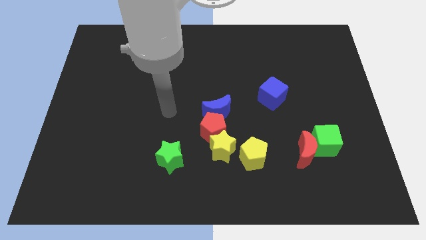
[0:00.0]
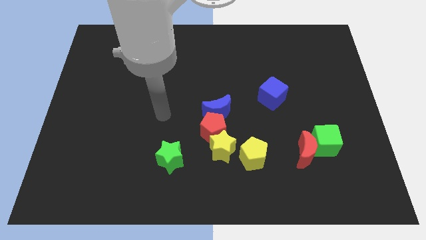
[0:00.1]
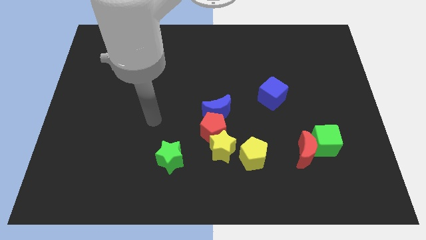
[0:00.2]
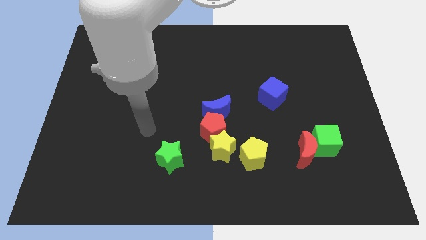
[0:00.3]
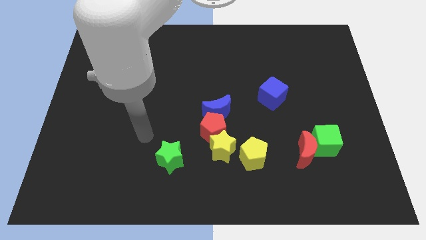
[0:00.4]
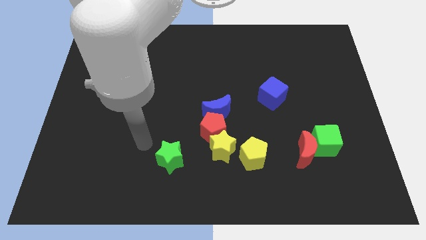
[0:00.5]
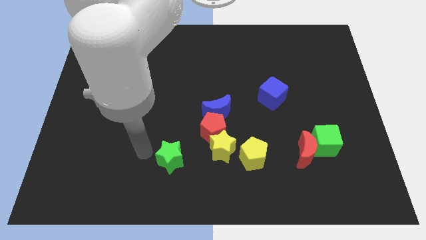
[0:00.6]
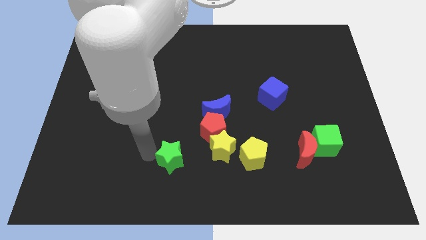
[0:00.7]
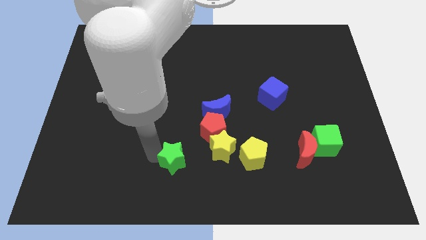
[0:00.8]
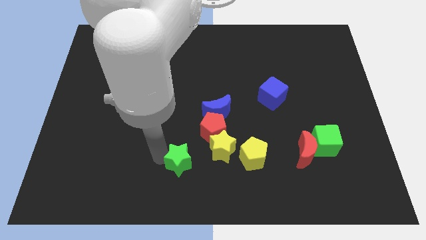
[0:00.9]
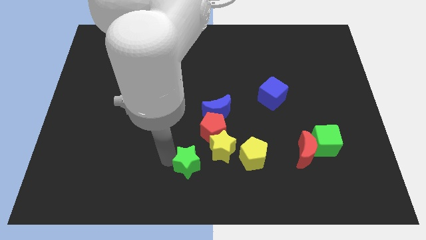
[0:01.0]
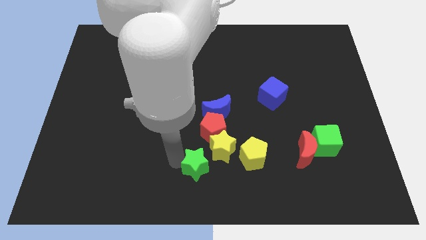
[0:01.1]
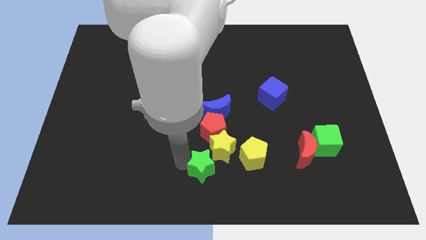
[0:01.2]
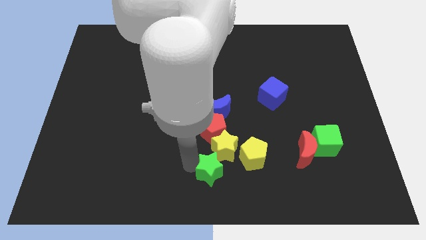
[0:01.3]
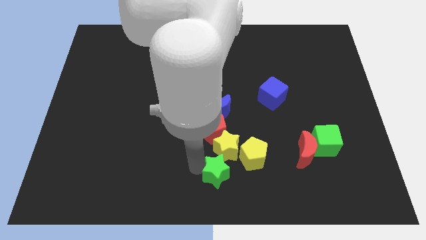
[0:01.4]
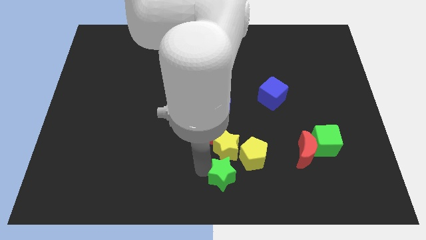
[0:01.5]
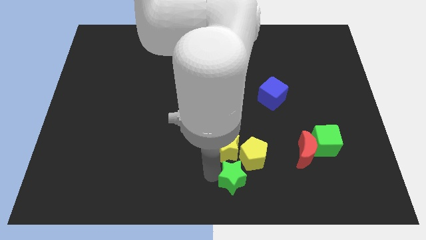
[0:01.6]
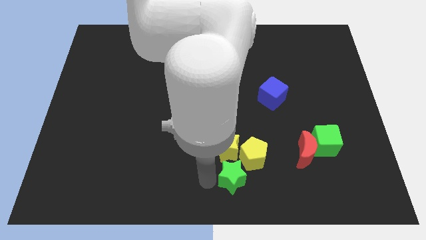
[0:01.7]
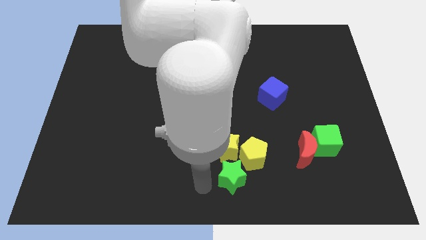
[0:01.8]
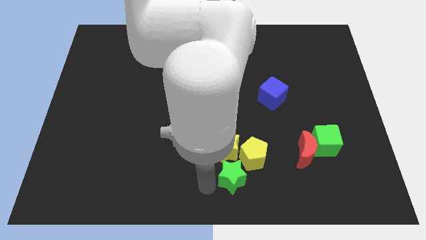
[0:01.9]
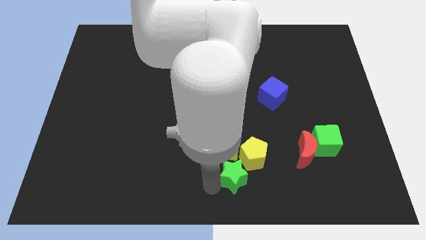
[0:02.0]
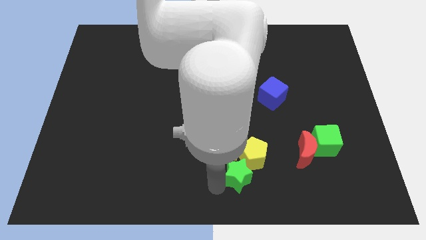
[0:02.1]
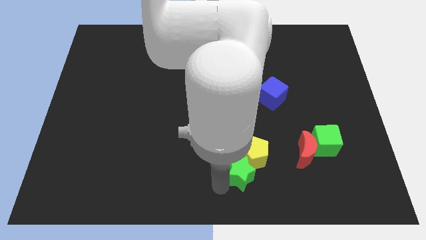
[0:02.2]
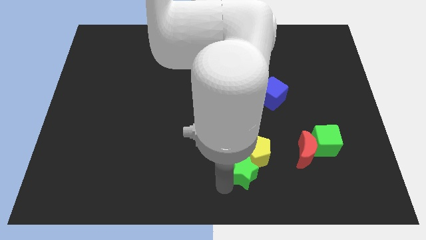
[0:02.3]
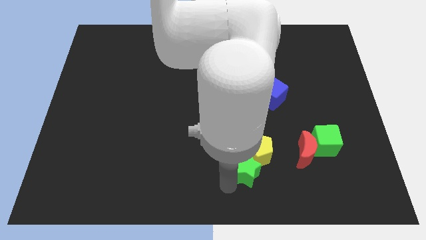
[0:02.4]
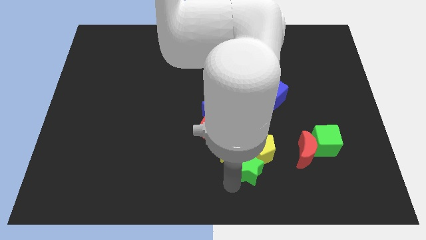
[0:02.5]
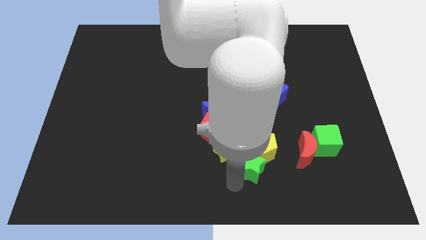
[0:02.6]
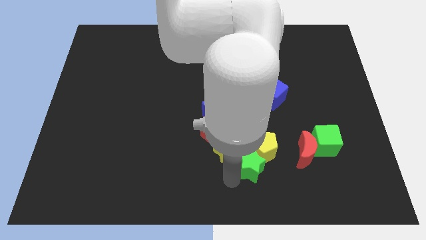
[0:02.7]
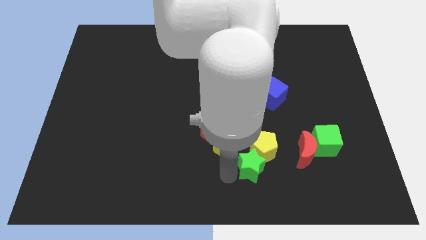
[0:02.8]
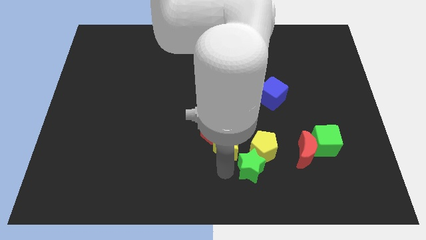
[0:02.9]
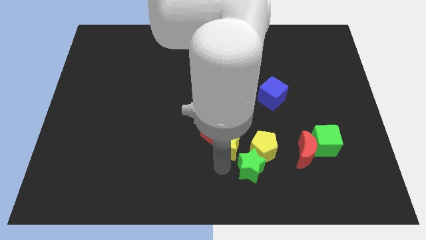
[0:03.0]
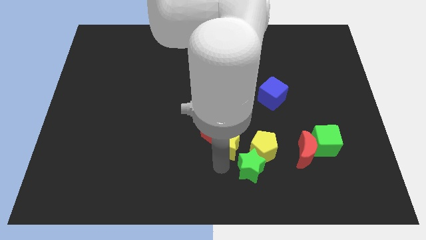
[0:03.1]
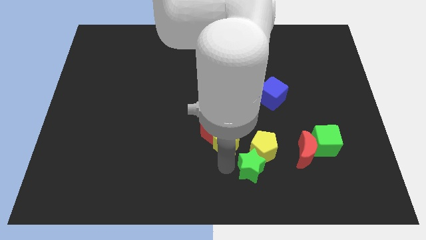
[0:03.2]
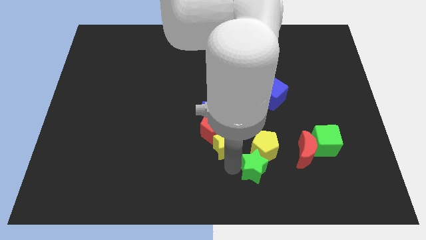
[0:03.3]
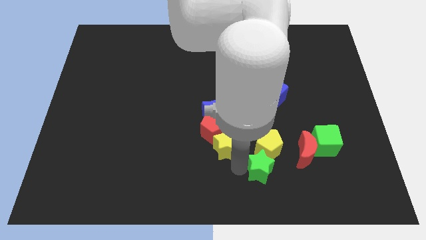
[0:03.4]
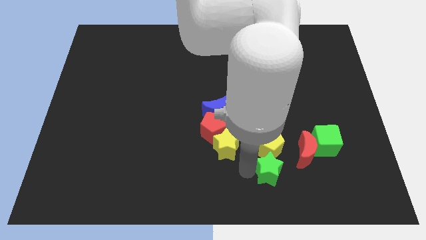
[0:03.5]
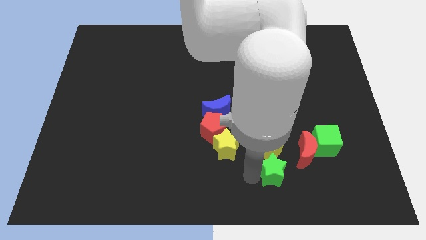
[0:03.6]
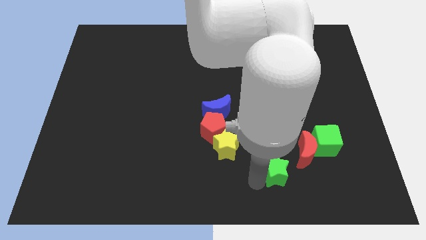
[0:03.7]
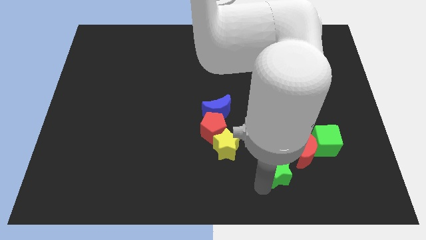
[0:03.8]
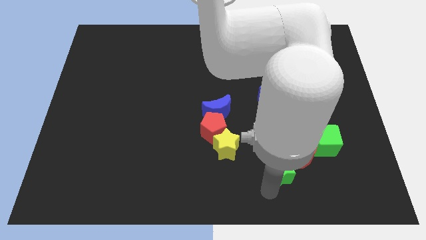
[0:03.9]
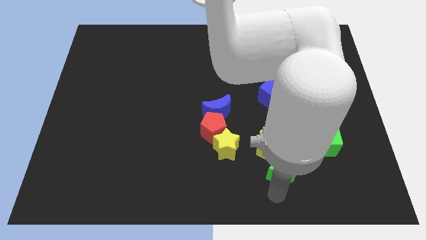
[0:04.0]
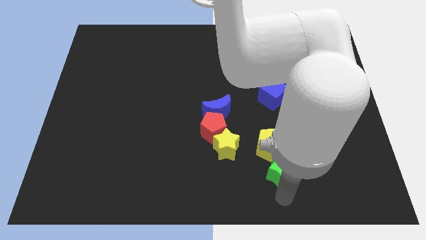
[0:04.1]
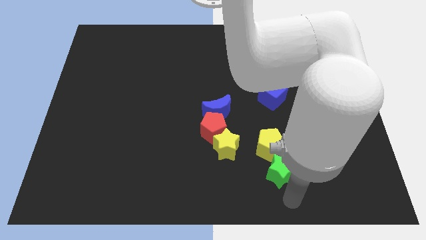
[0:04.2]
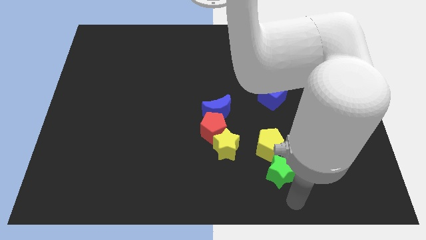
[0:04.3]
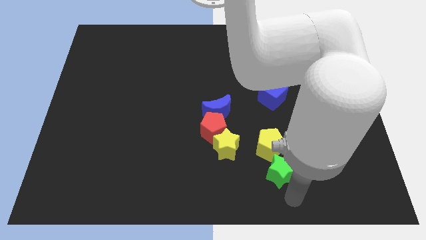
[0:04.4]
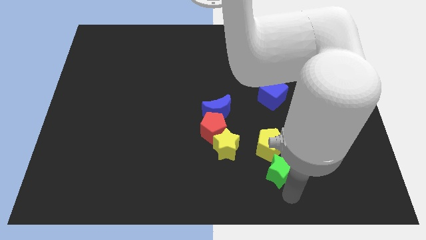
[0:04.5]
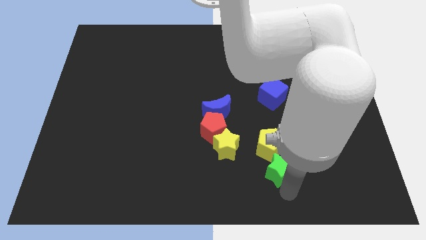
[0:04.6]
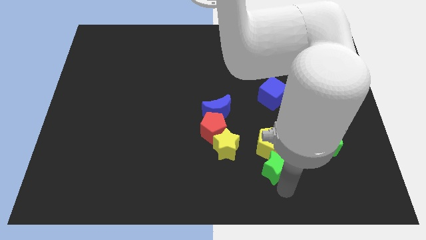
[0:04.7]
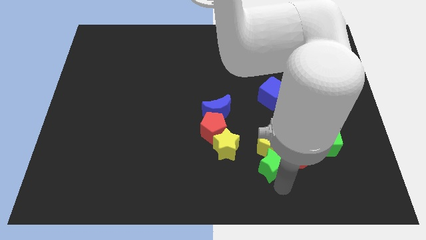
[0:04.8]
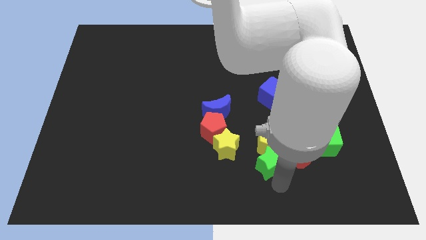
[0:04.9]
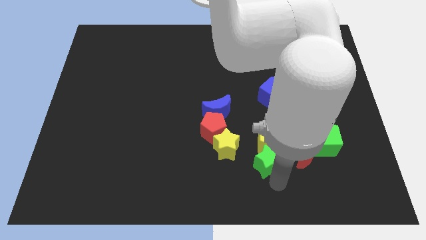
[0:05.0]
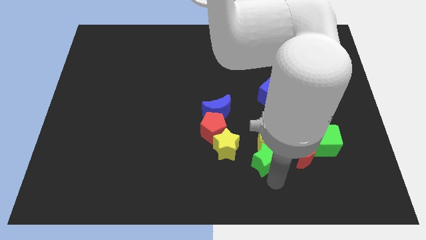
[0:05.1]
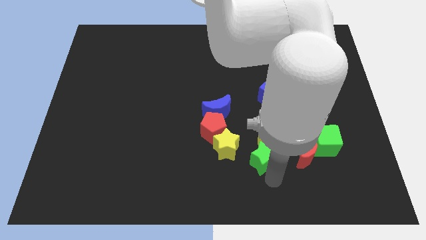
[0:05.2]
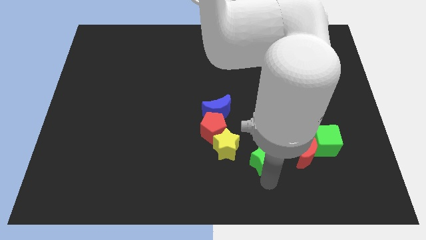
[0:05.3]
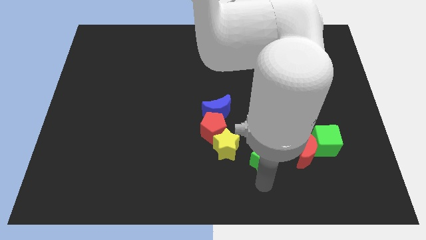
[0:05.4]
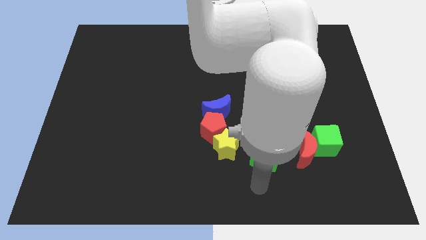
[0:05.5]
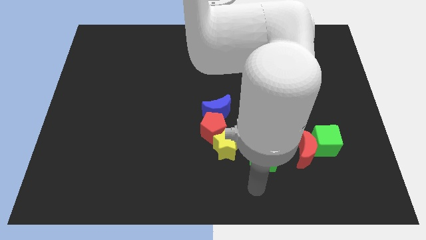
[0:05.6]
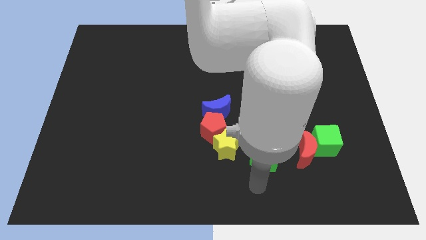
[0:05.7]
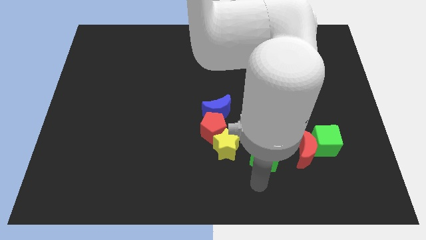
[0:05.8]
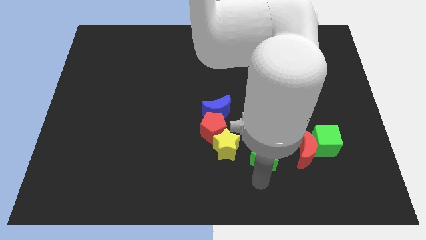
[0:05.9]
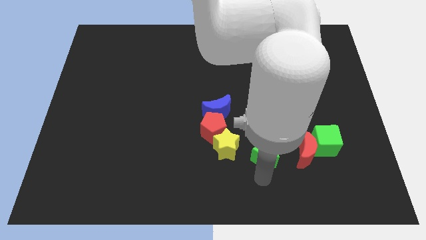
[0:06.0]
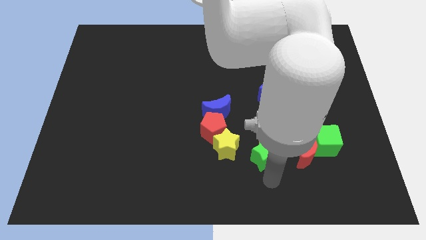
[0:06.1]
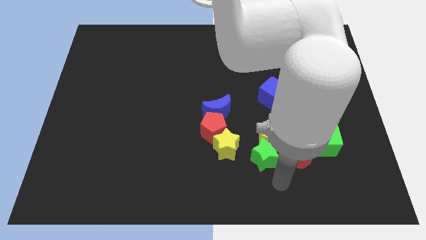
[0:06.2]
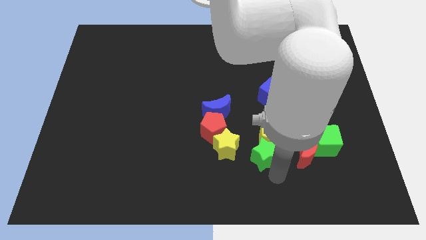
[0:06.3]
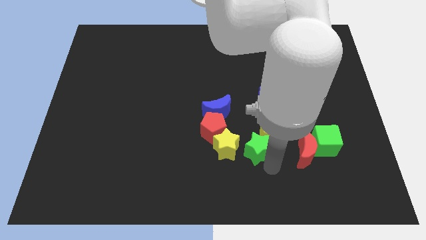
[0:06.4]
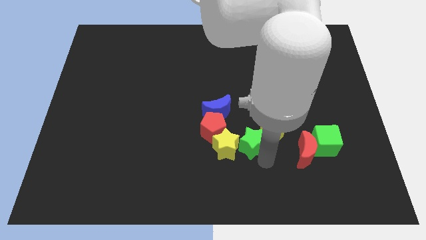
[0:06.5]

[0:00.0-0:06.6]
push the green star to the top right side of the yellow star
